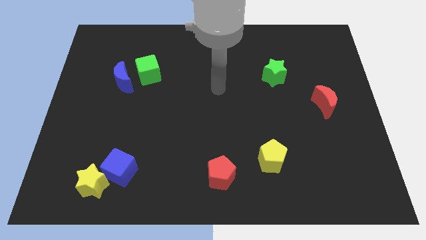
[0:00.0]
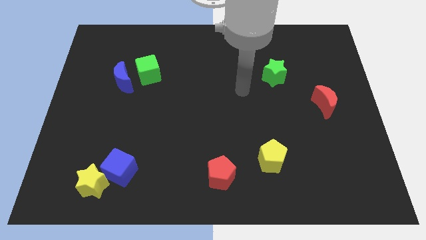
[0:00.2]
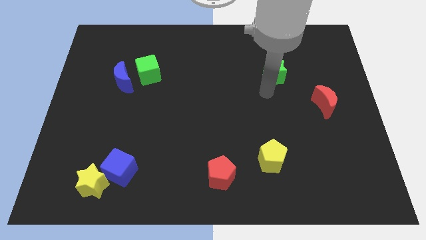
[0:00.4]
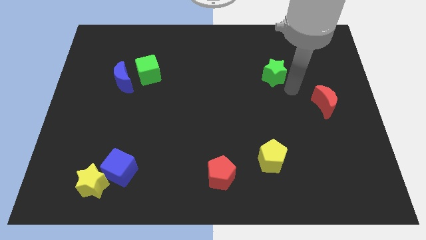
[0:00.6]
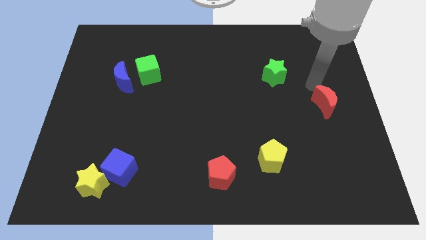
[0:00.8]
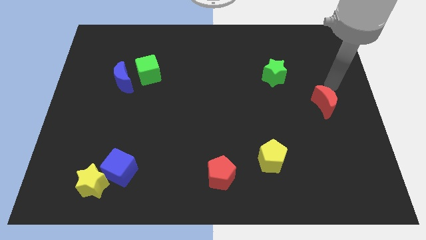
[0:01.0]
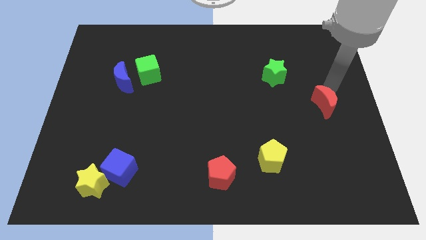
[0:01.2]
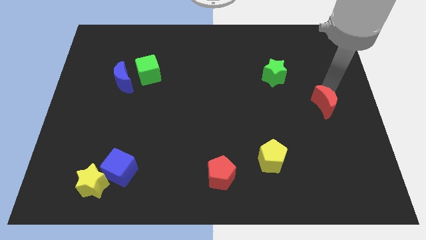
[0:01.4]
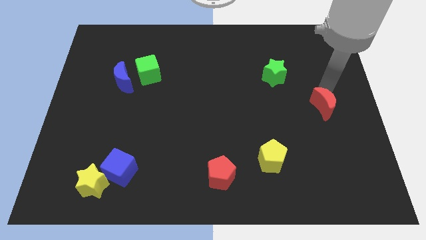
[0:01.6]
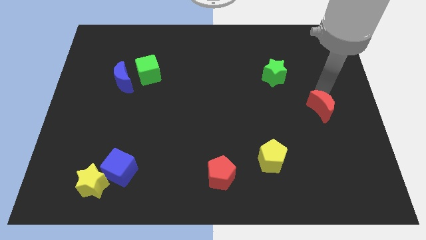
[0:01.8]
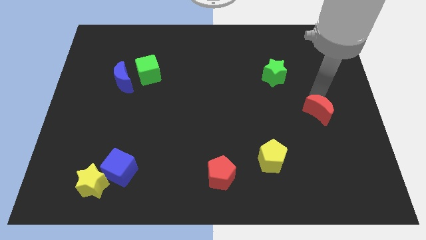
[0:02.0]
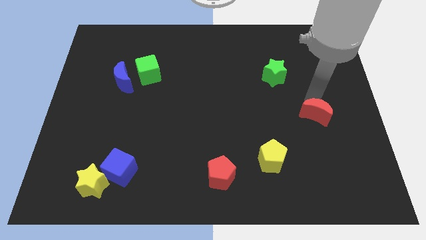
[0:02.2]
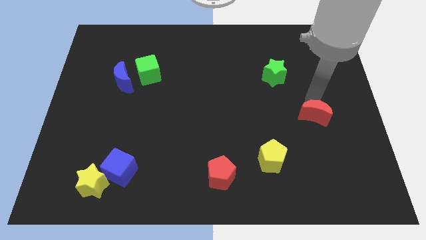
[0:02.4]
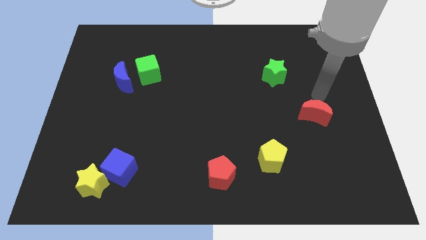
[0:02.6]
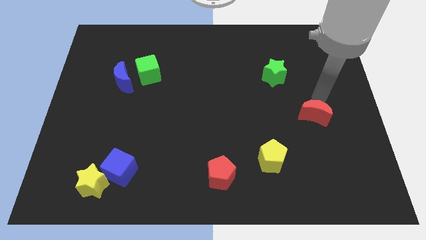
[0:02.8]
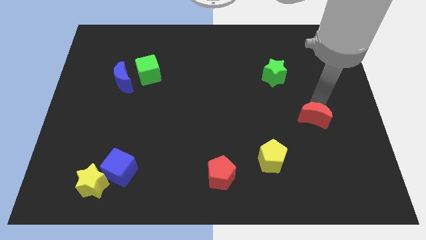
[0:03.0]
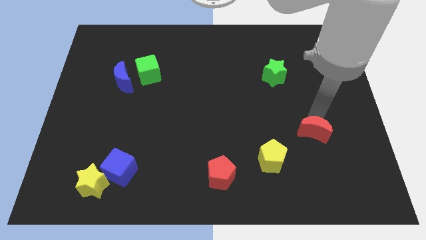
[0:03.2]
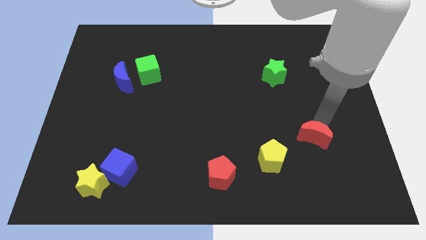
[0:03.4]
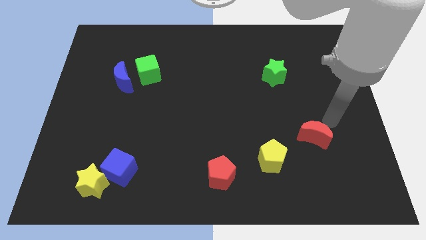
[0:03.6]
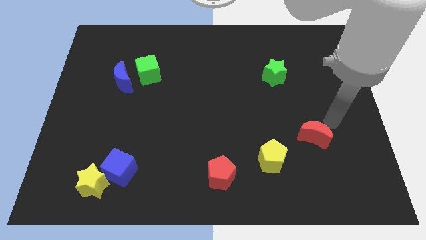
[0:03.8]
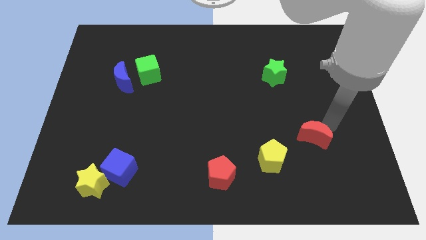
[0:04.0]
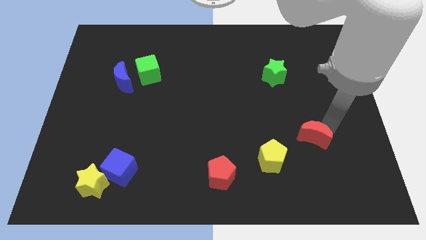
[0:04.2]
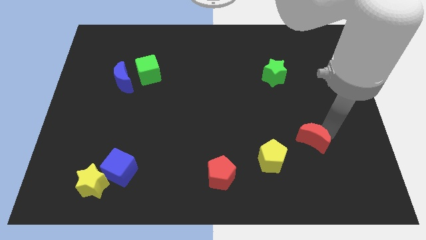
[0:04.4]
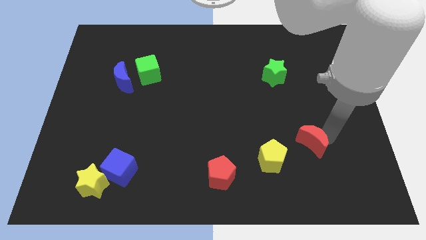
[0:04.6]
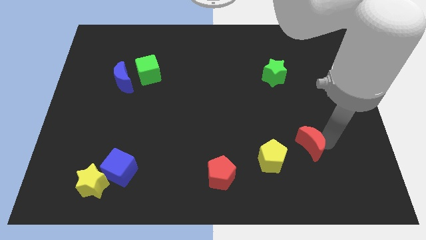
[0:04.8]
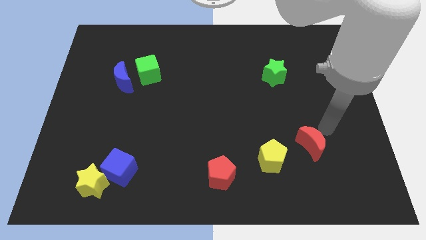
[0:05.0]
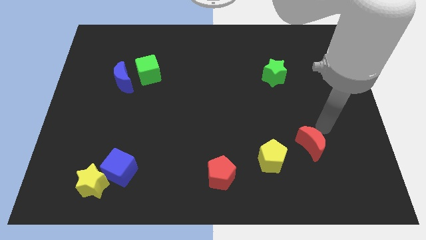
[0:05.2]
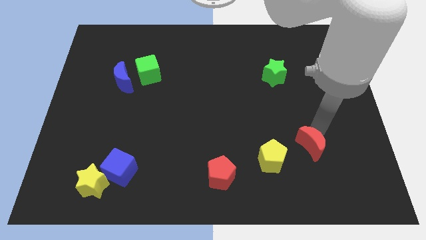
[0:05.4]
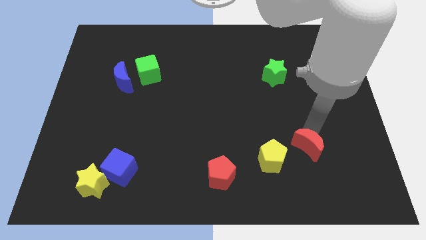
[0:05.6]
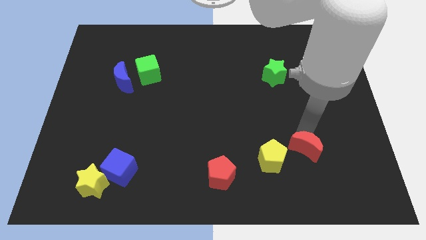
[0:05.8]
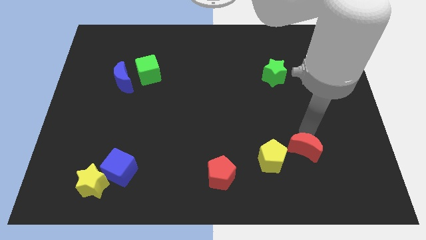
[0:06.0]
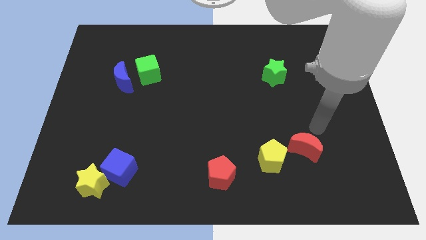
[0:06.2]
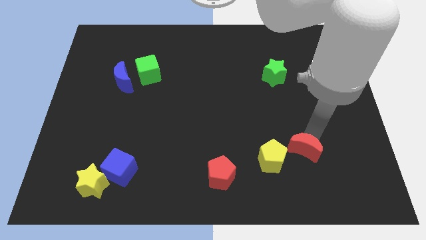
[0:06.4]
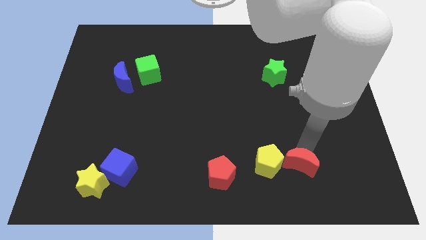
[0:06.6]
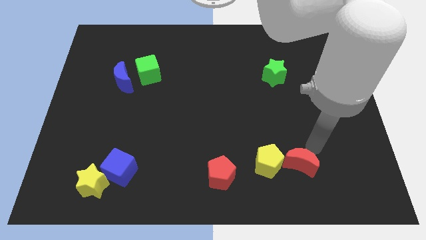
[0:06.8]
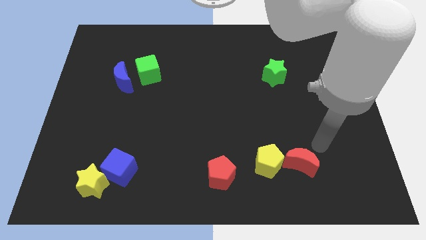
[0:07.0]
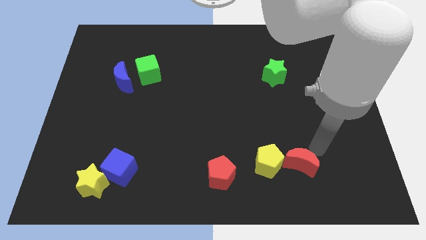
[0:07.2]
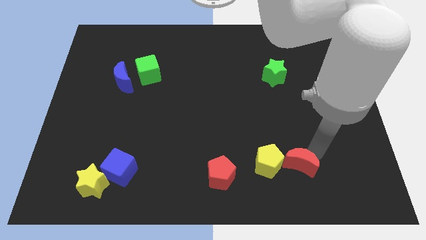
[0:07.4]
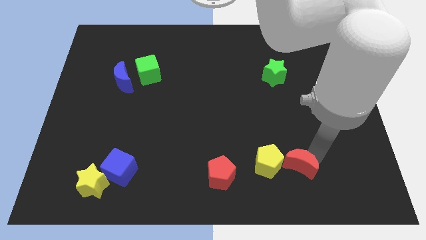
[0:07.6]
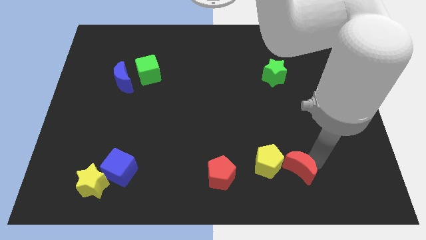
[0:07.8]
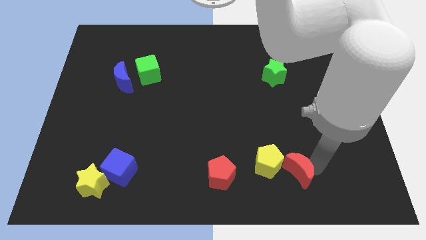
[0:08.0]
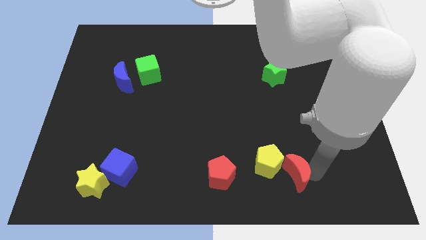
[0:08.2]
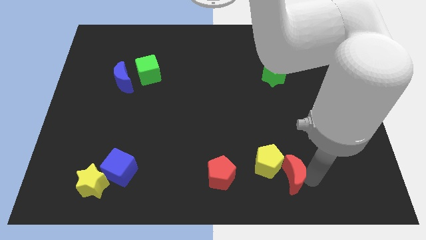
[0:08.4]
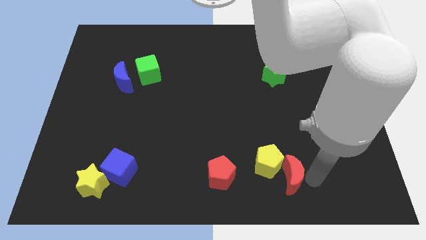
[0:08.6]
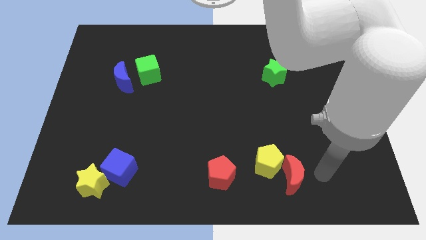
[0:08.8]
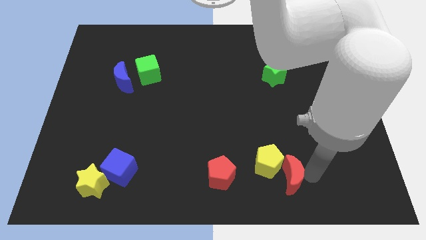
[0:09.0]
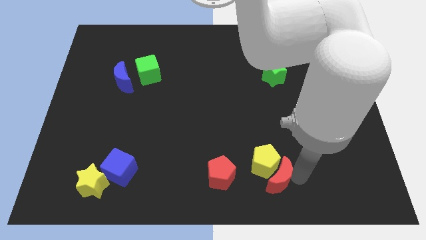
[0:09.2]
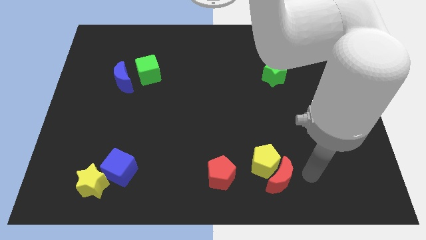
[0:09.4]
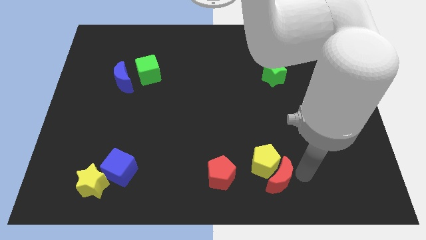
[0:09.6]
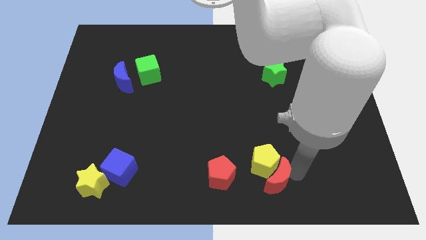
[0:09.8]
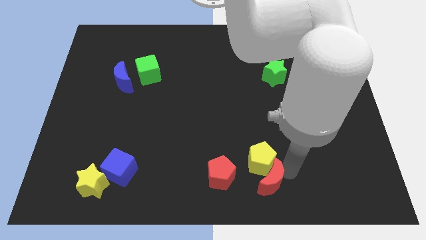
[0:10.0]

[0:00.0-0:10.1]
put the red moon to the bottom side

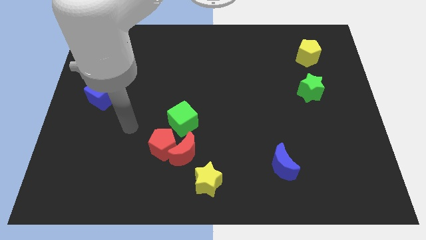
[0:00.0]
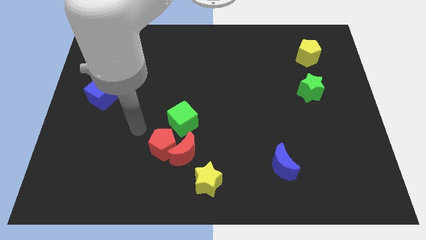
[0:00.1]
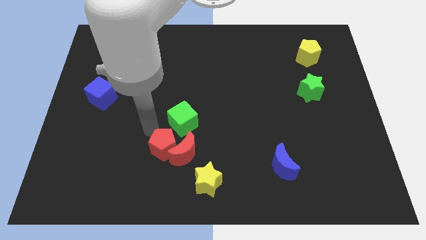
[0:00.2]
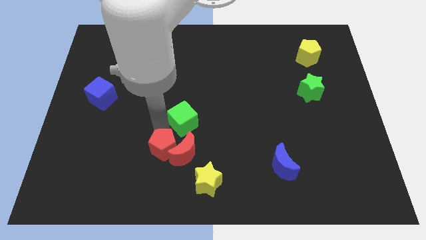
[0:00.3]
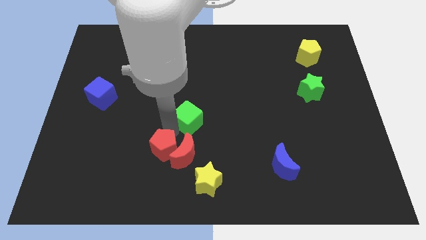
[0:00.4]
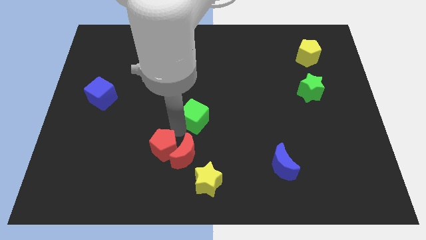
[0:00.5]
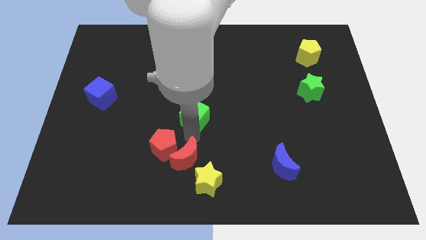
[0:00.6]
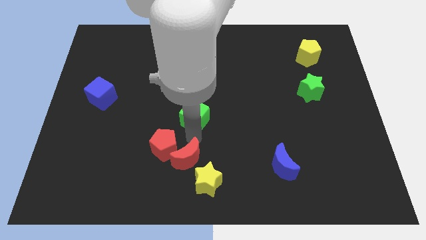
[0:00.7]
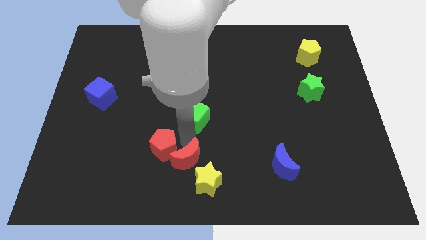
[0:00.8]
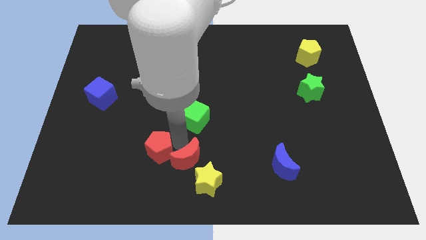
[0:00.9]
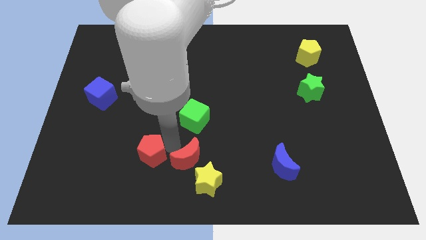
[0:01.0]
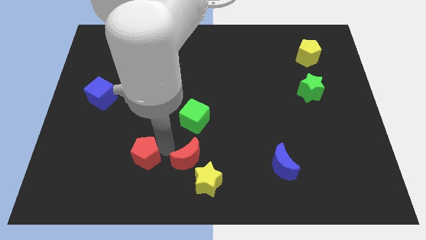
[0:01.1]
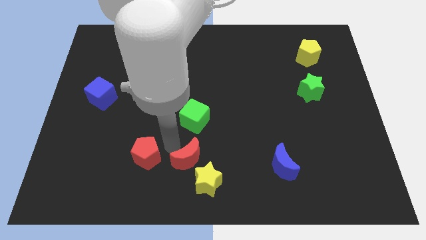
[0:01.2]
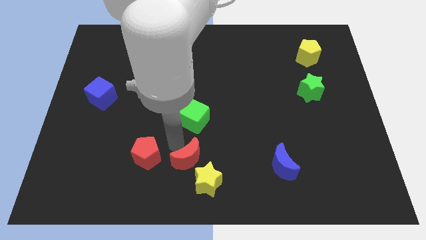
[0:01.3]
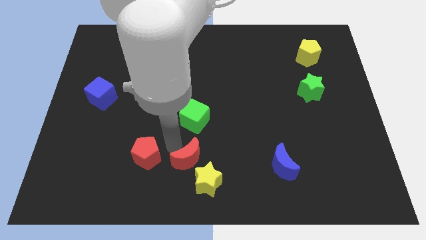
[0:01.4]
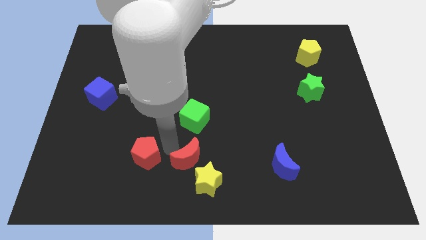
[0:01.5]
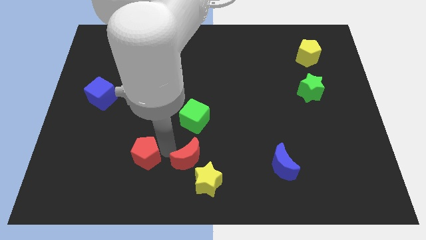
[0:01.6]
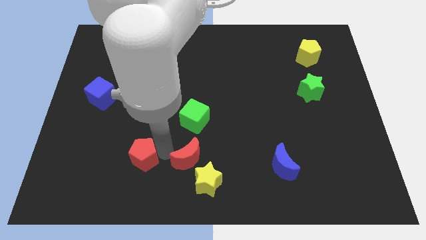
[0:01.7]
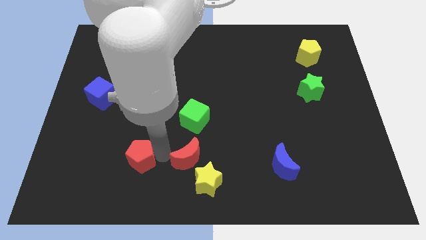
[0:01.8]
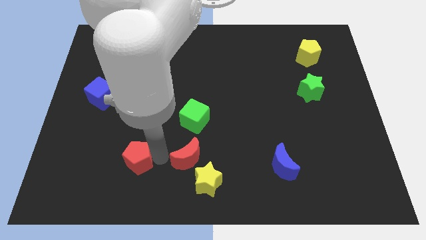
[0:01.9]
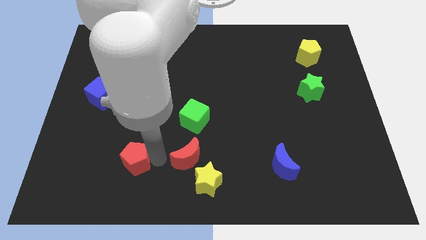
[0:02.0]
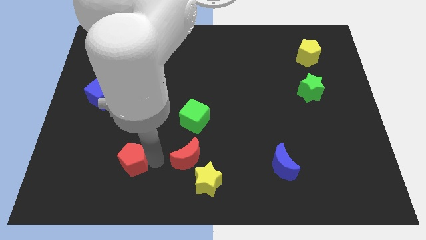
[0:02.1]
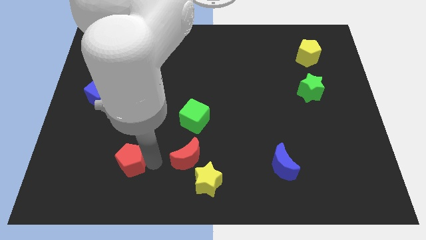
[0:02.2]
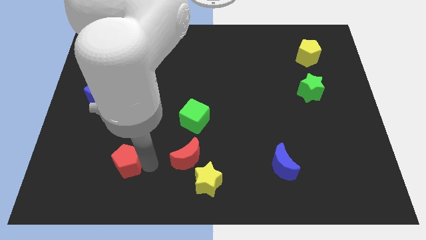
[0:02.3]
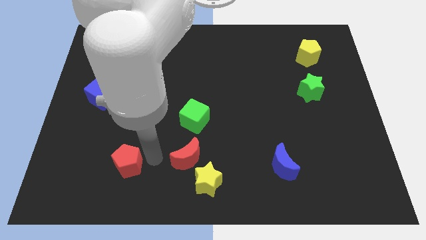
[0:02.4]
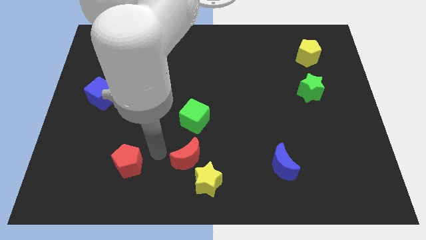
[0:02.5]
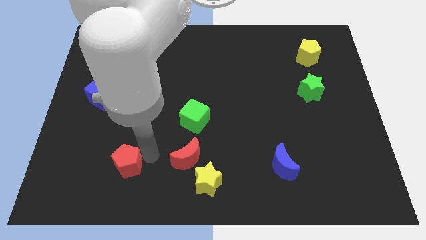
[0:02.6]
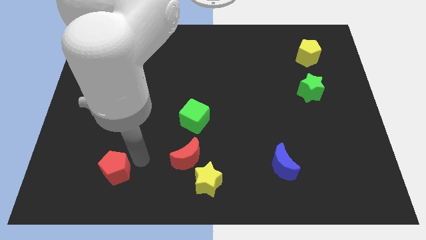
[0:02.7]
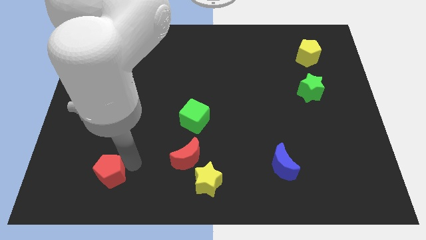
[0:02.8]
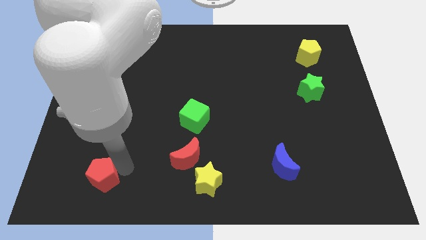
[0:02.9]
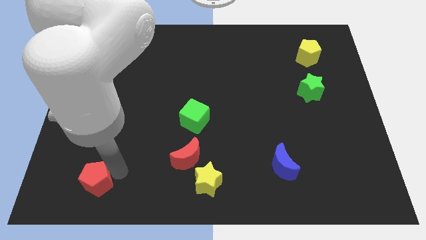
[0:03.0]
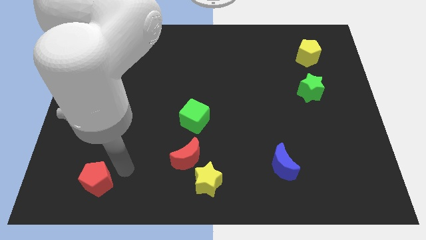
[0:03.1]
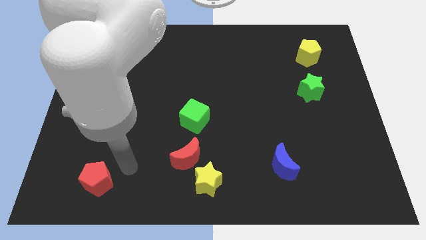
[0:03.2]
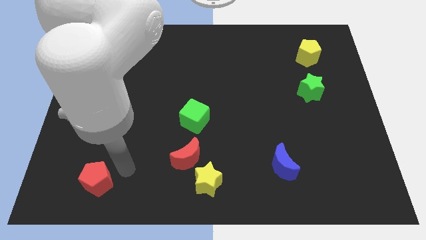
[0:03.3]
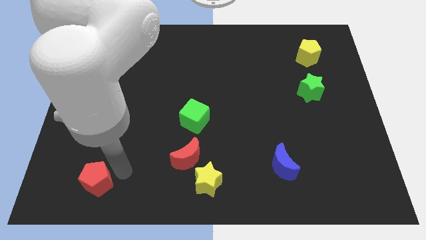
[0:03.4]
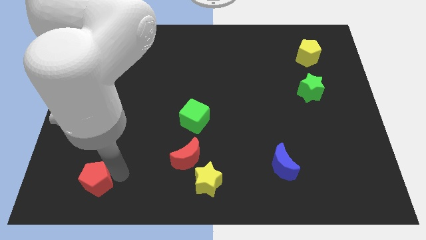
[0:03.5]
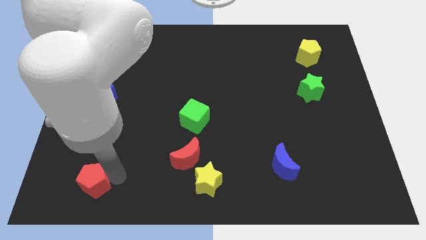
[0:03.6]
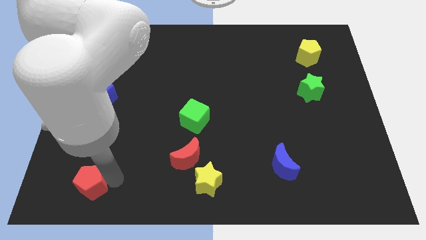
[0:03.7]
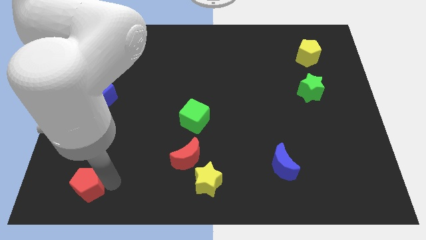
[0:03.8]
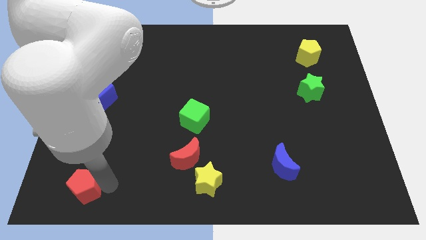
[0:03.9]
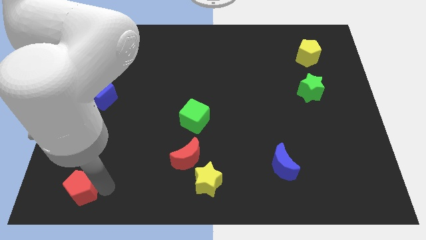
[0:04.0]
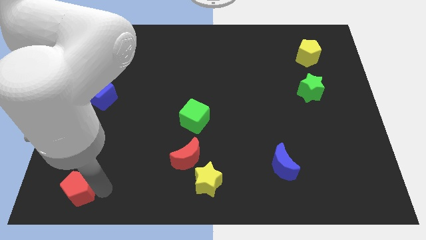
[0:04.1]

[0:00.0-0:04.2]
put the red pentagon to the bottom left
